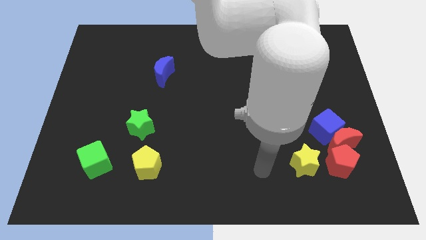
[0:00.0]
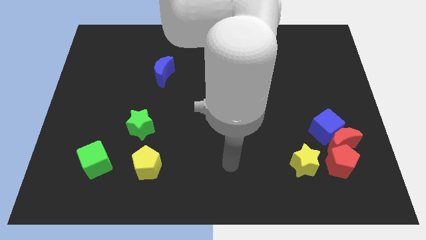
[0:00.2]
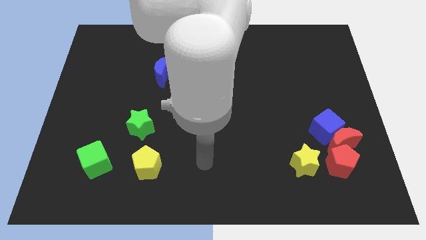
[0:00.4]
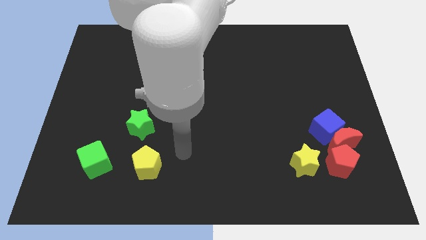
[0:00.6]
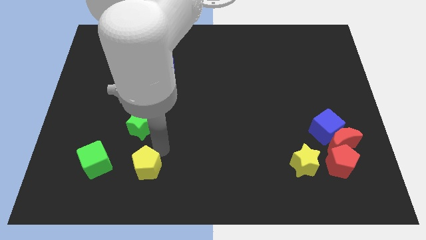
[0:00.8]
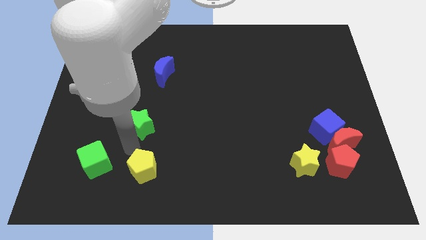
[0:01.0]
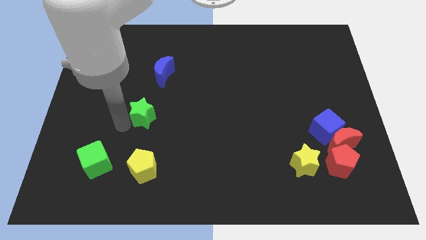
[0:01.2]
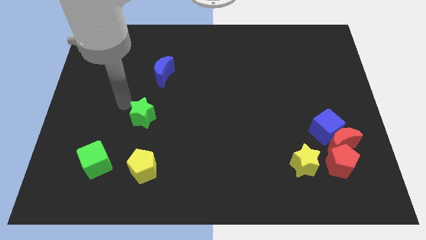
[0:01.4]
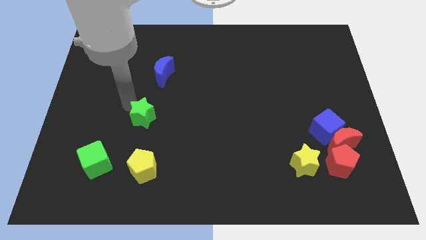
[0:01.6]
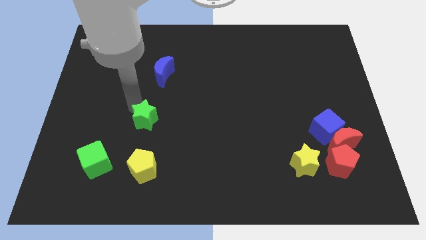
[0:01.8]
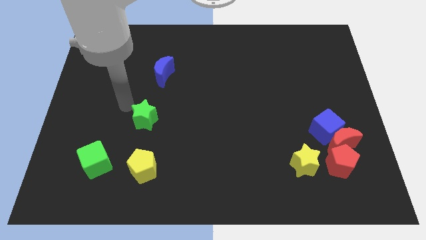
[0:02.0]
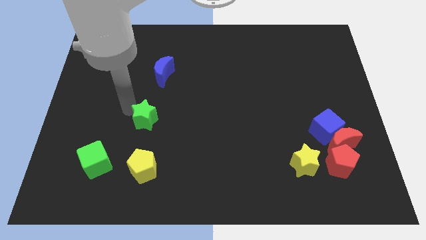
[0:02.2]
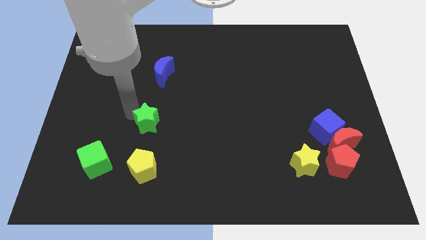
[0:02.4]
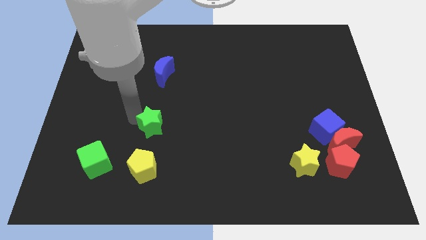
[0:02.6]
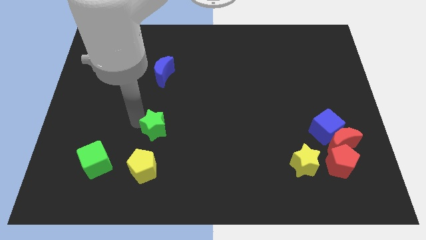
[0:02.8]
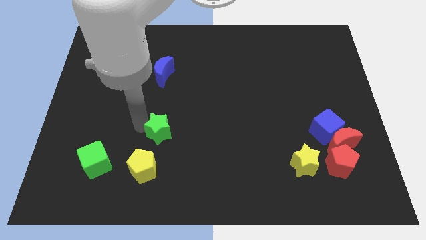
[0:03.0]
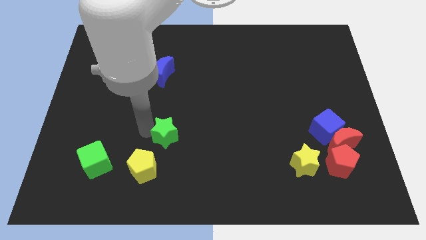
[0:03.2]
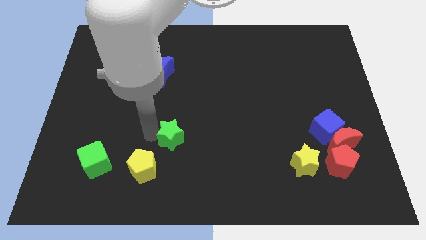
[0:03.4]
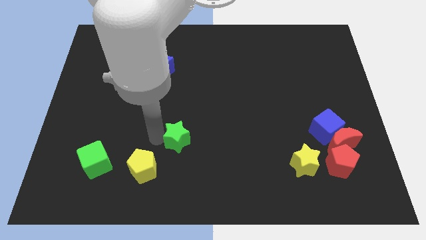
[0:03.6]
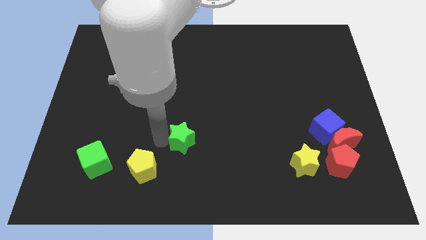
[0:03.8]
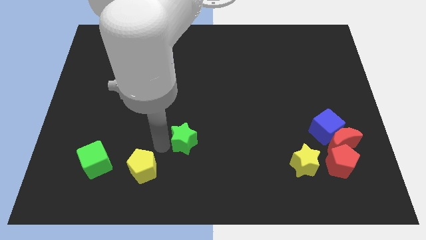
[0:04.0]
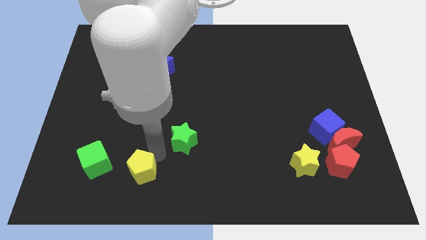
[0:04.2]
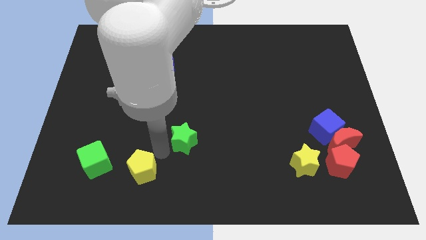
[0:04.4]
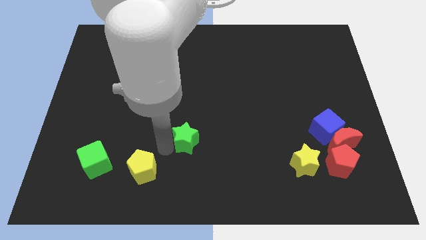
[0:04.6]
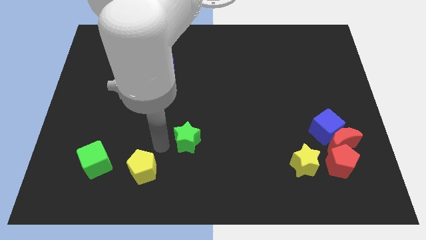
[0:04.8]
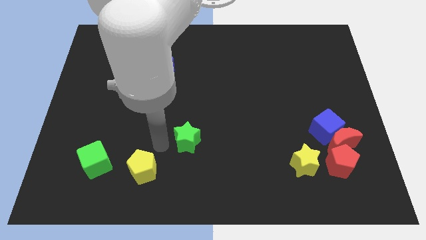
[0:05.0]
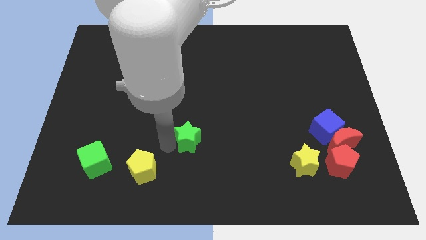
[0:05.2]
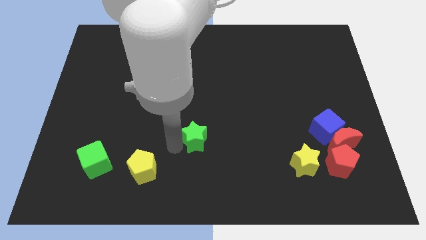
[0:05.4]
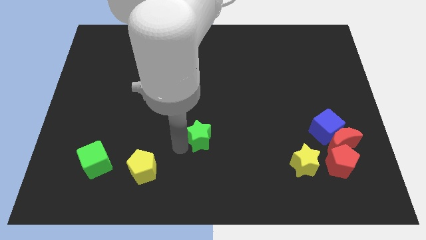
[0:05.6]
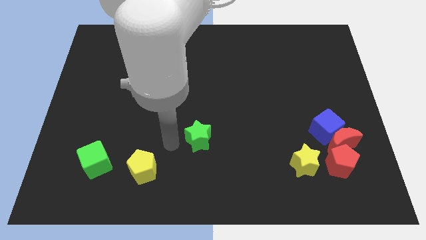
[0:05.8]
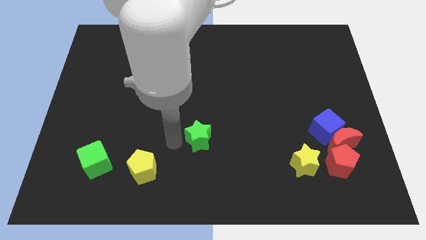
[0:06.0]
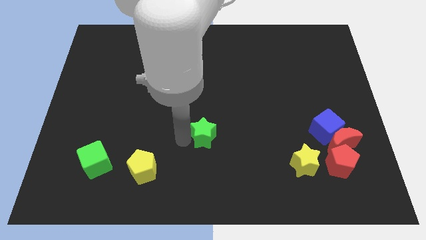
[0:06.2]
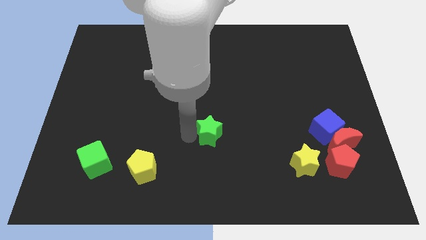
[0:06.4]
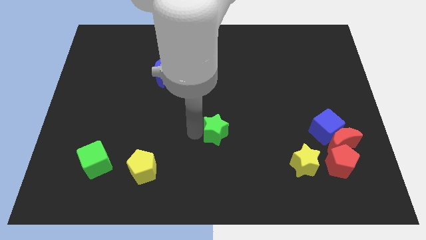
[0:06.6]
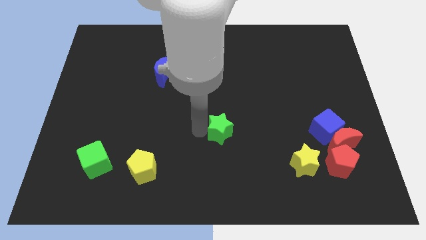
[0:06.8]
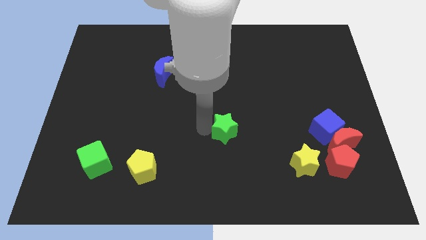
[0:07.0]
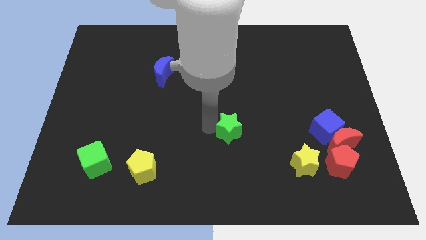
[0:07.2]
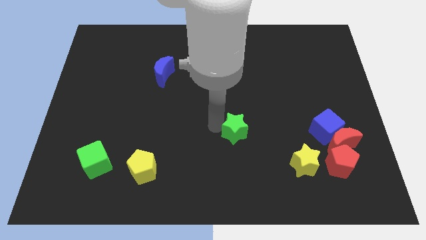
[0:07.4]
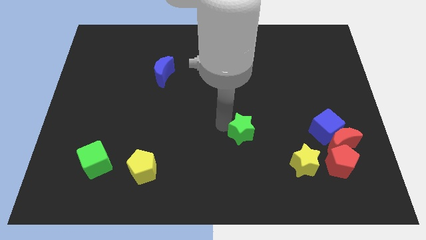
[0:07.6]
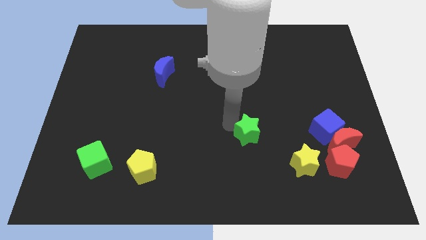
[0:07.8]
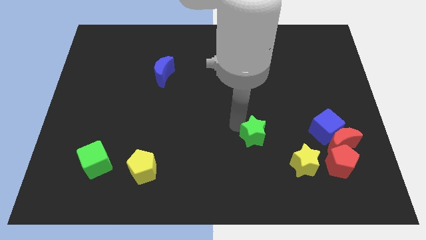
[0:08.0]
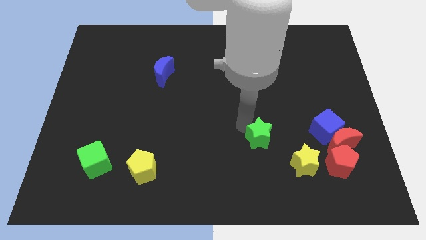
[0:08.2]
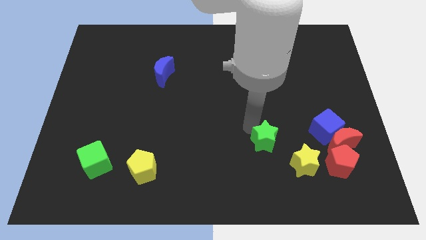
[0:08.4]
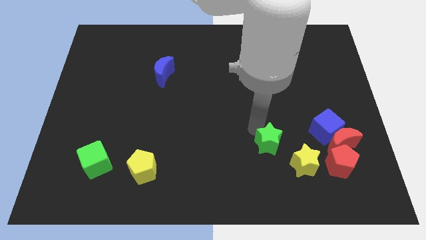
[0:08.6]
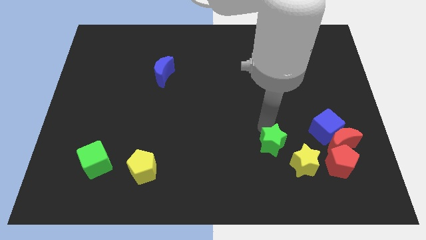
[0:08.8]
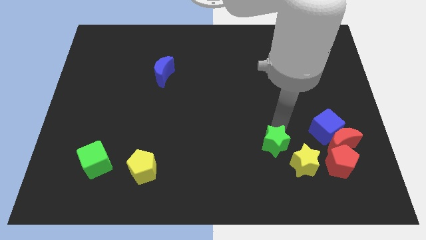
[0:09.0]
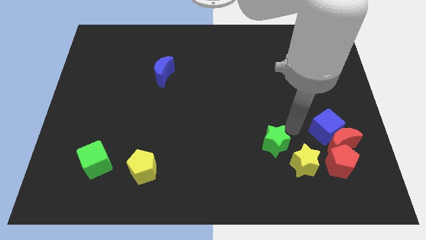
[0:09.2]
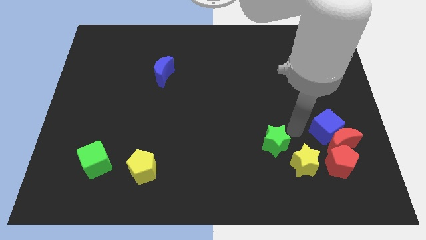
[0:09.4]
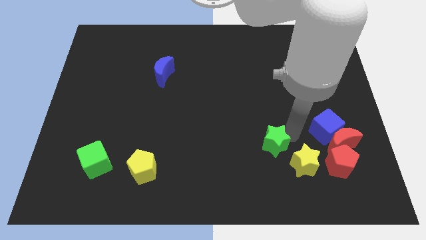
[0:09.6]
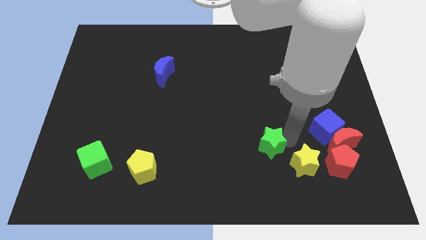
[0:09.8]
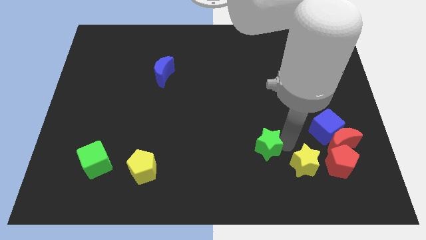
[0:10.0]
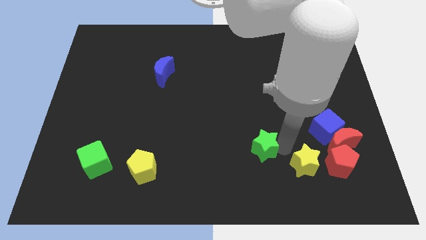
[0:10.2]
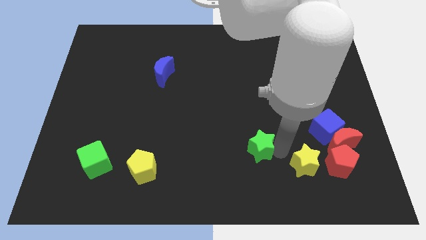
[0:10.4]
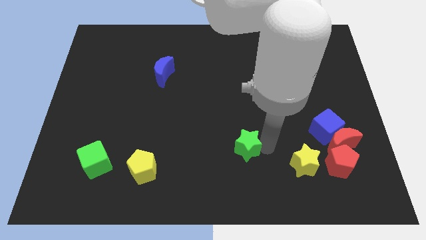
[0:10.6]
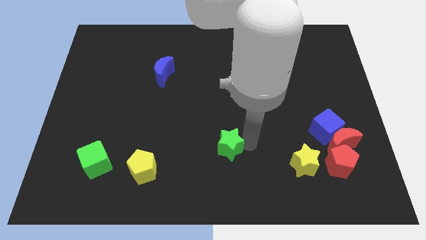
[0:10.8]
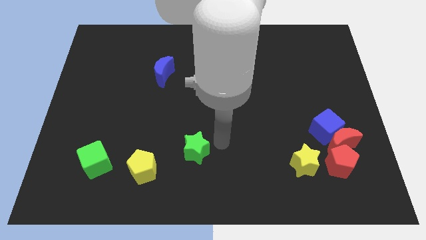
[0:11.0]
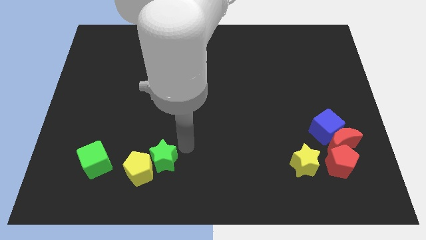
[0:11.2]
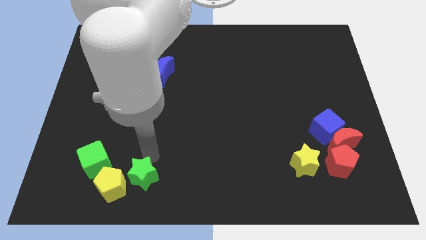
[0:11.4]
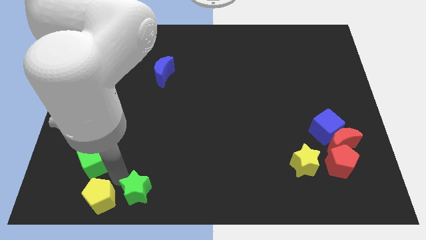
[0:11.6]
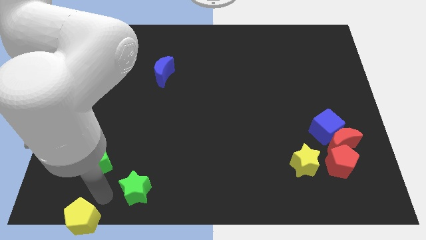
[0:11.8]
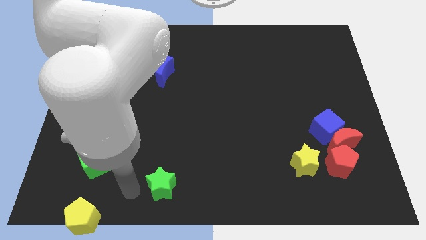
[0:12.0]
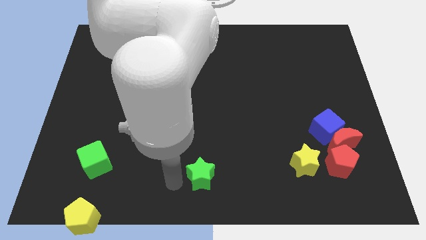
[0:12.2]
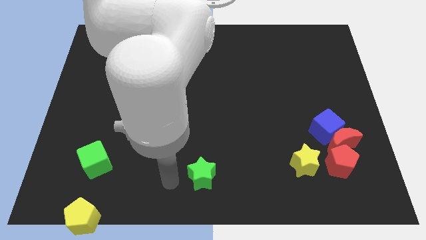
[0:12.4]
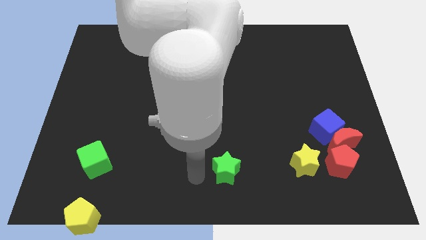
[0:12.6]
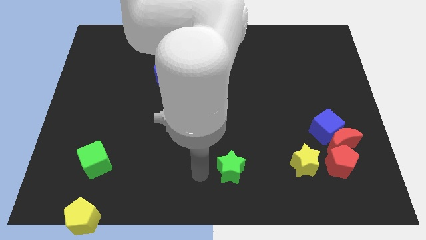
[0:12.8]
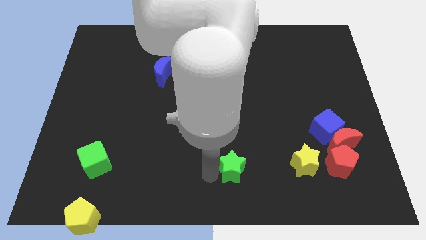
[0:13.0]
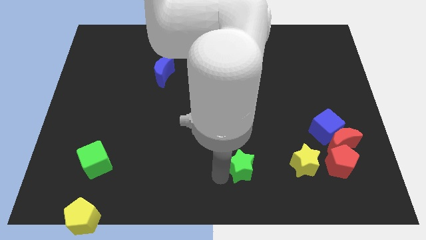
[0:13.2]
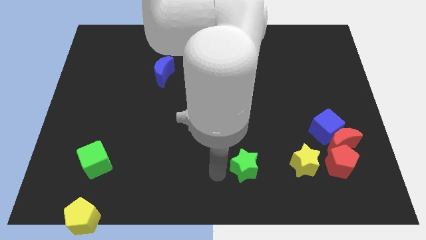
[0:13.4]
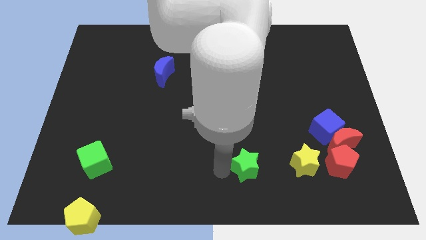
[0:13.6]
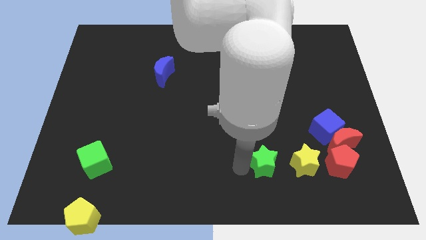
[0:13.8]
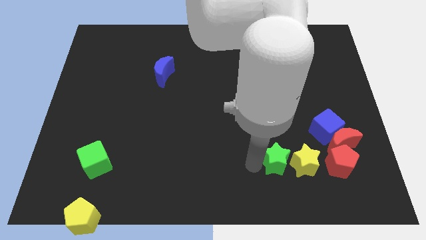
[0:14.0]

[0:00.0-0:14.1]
put the green star next to the yellow star

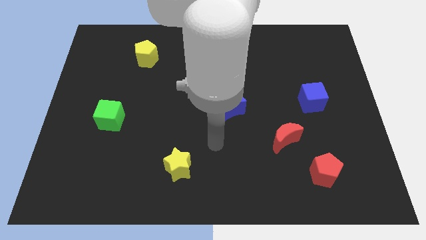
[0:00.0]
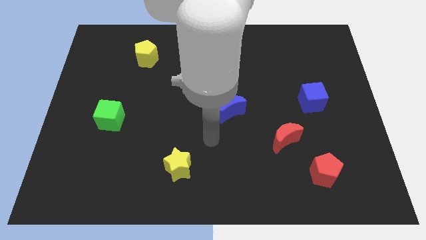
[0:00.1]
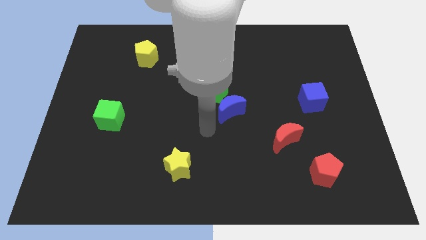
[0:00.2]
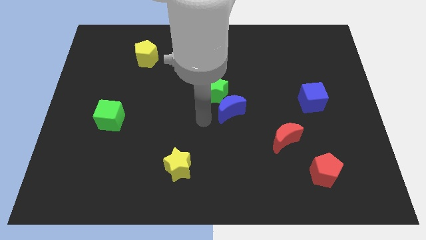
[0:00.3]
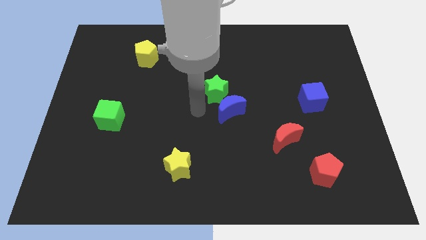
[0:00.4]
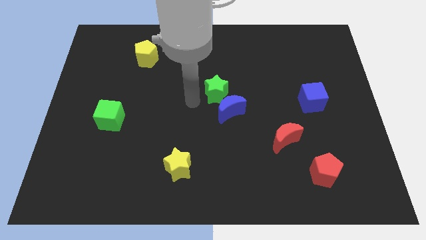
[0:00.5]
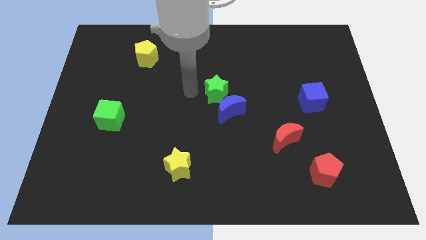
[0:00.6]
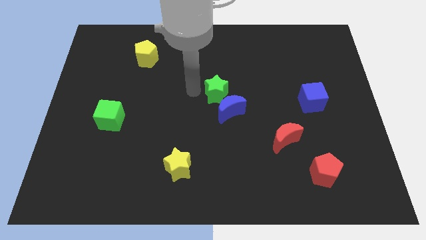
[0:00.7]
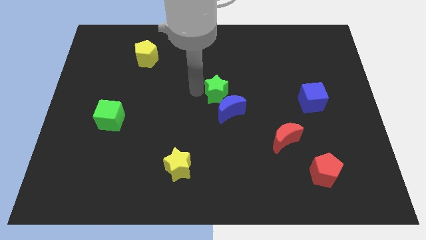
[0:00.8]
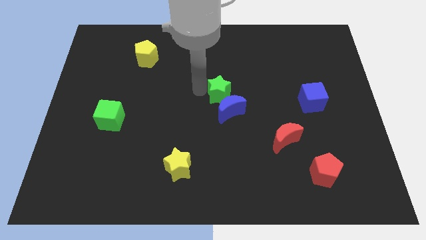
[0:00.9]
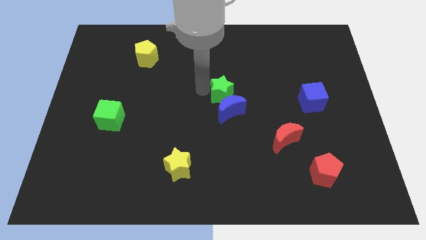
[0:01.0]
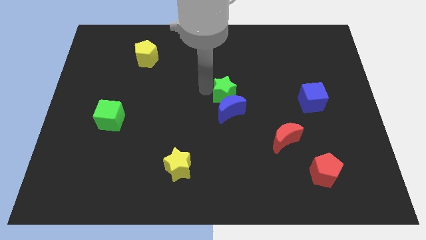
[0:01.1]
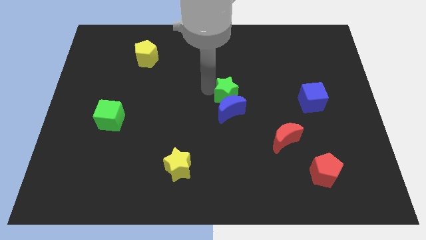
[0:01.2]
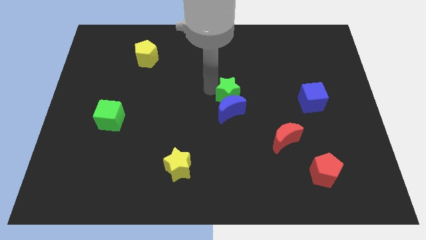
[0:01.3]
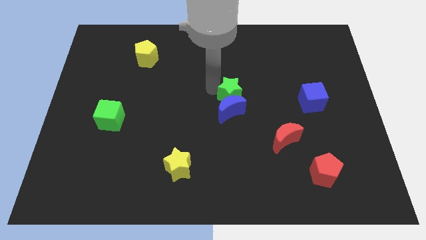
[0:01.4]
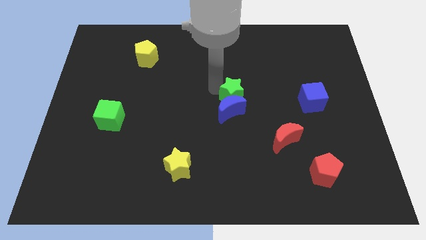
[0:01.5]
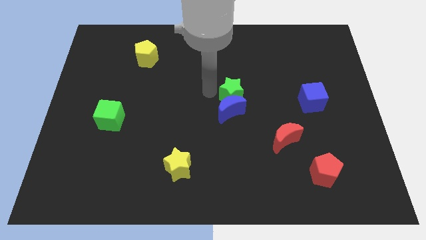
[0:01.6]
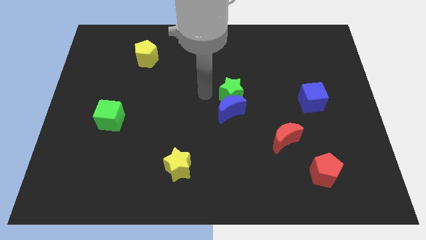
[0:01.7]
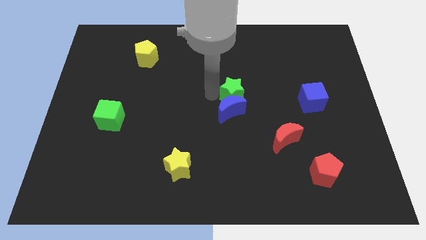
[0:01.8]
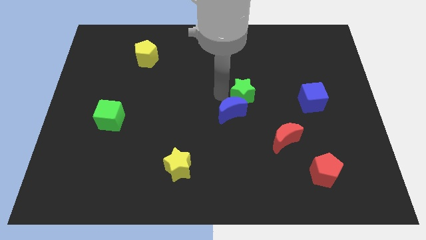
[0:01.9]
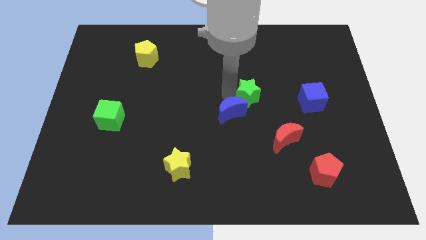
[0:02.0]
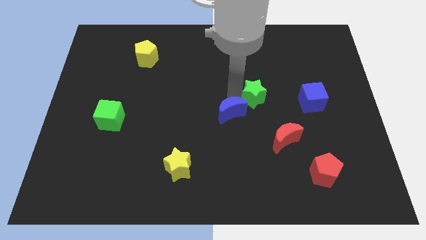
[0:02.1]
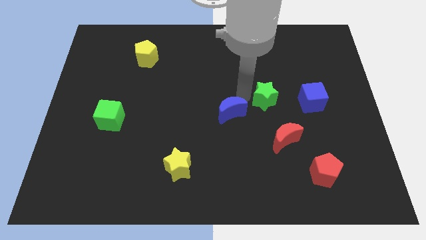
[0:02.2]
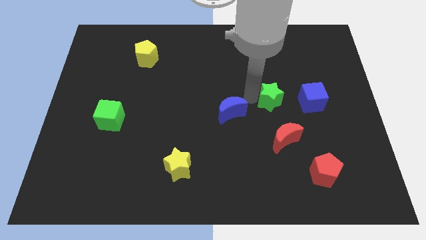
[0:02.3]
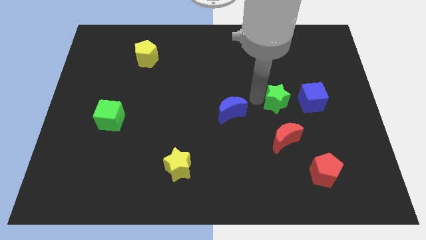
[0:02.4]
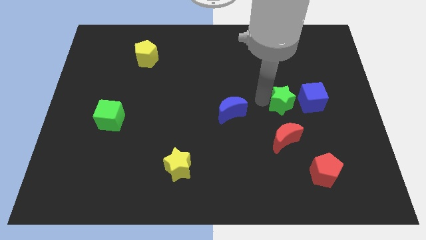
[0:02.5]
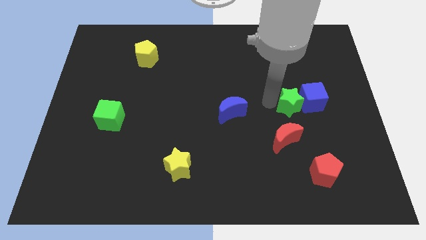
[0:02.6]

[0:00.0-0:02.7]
move the green star to the blue cube
